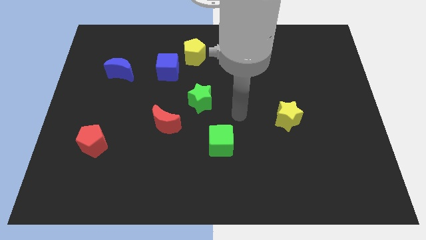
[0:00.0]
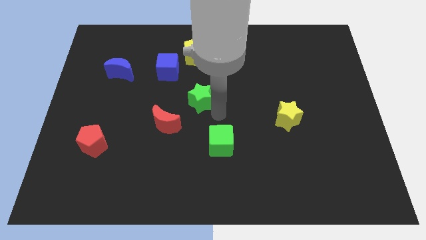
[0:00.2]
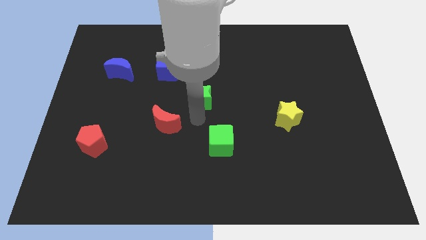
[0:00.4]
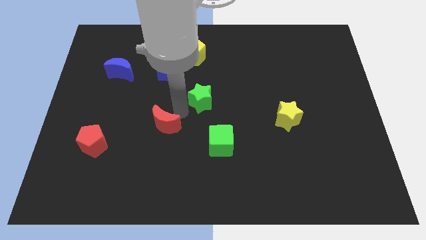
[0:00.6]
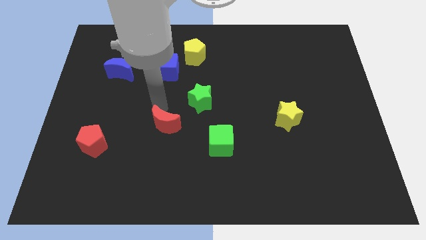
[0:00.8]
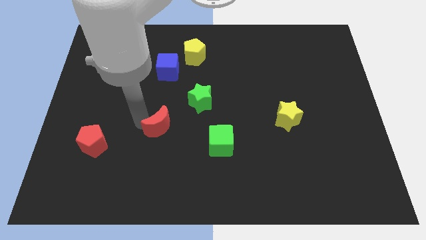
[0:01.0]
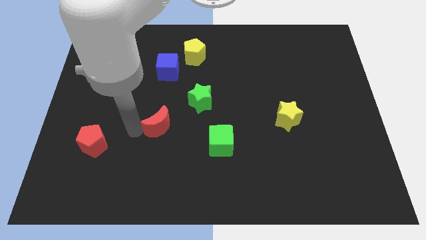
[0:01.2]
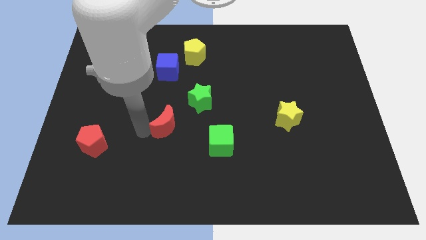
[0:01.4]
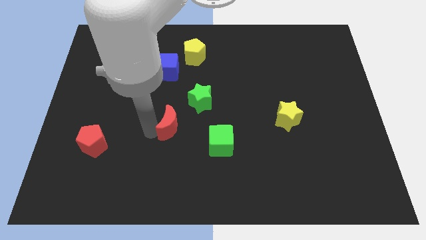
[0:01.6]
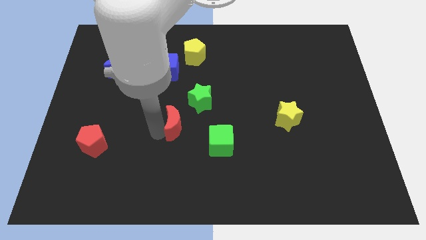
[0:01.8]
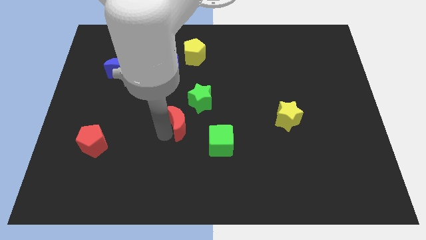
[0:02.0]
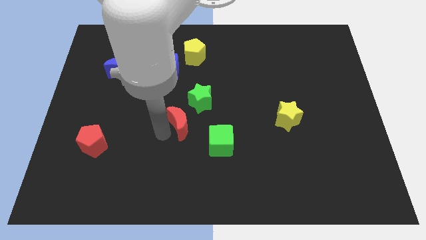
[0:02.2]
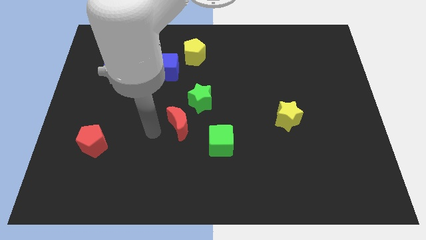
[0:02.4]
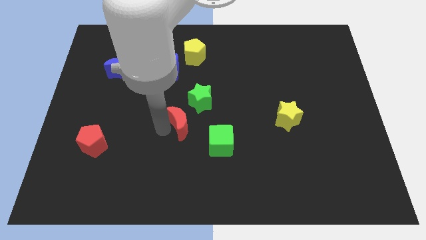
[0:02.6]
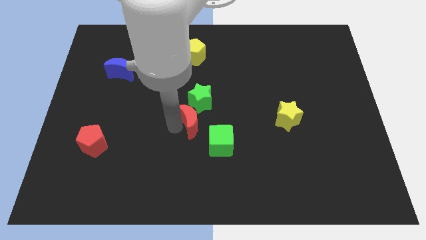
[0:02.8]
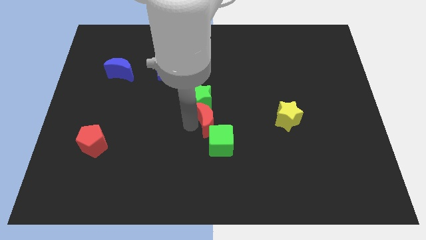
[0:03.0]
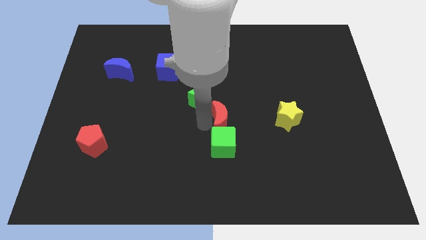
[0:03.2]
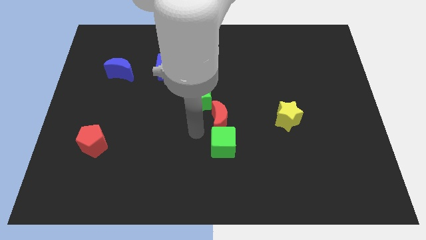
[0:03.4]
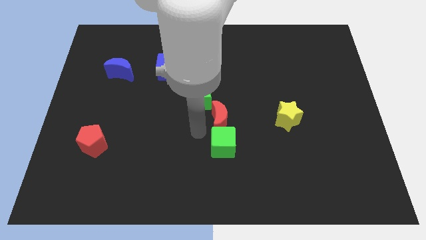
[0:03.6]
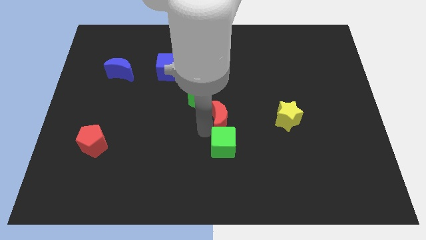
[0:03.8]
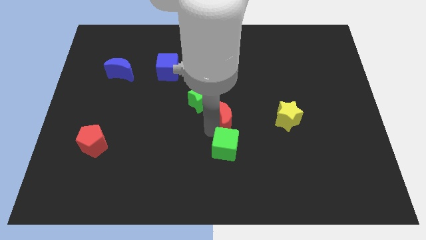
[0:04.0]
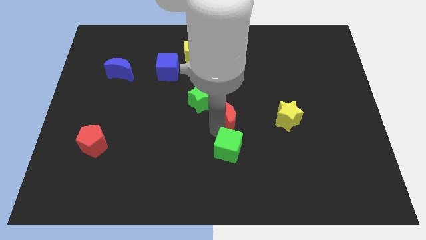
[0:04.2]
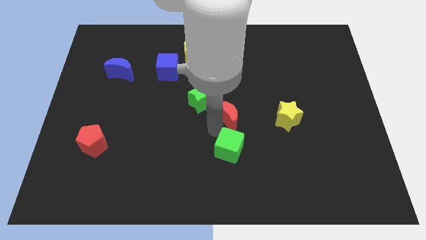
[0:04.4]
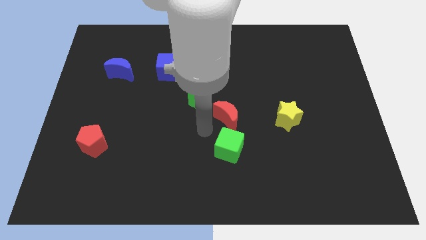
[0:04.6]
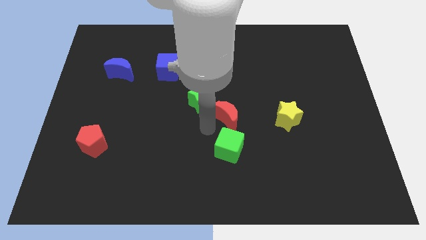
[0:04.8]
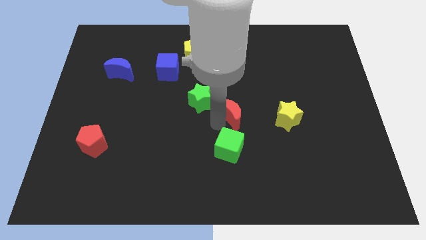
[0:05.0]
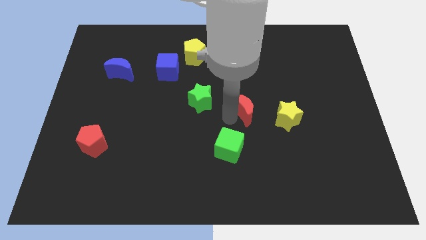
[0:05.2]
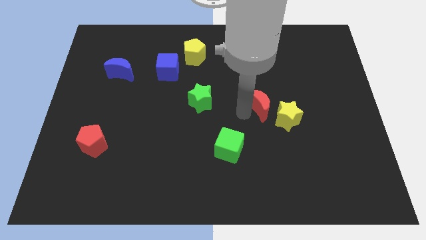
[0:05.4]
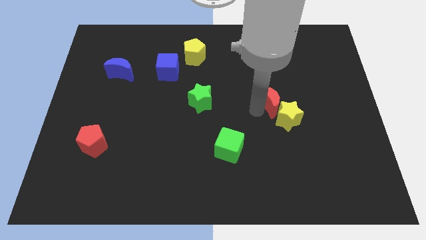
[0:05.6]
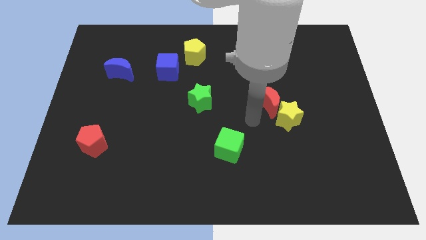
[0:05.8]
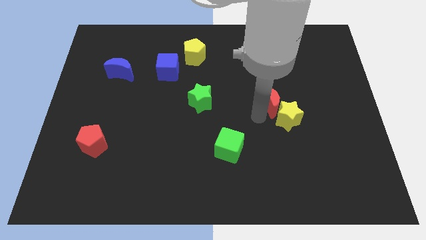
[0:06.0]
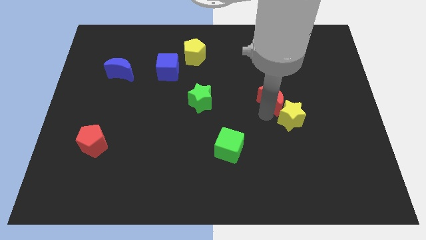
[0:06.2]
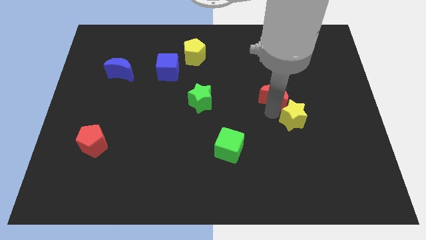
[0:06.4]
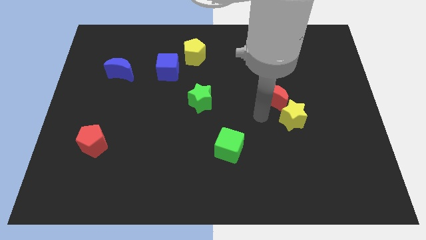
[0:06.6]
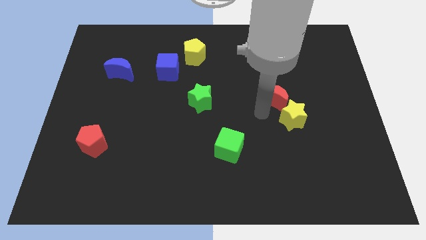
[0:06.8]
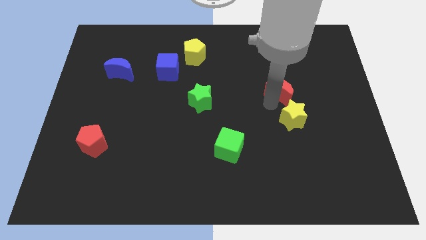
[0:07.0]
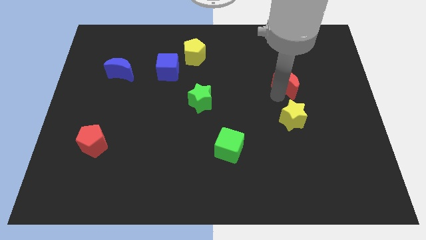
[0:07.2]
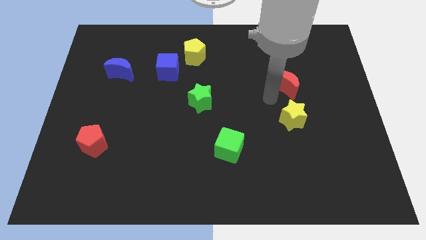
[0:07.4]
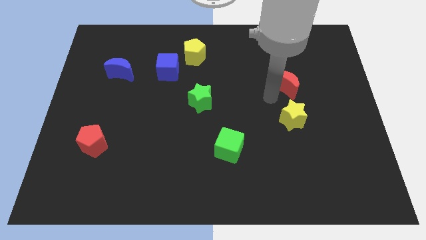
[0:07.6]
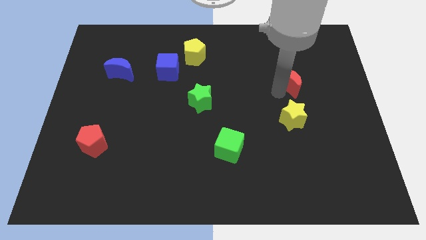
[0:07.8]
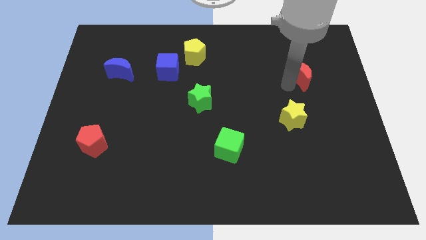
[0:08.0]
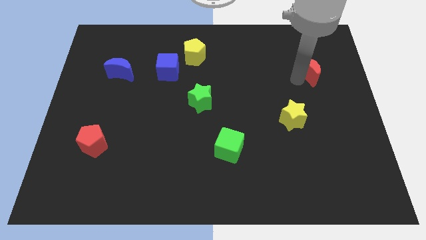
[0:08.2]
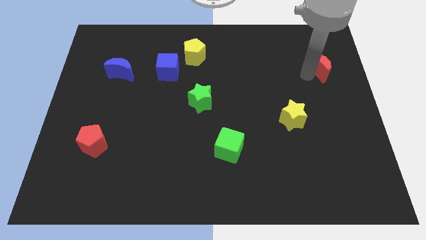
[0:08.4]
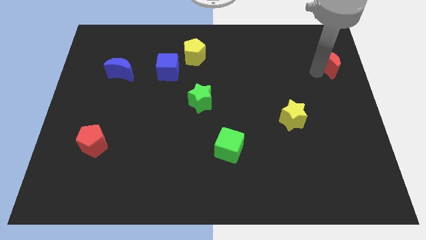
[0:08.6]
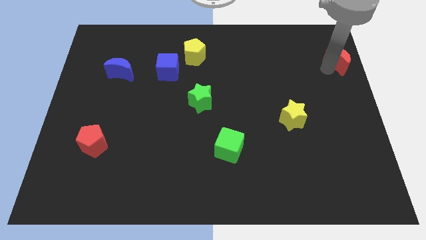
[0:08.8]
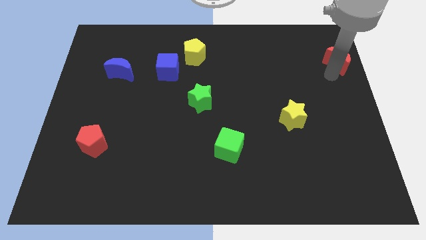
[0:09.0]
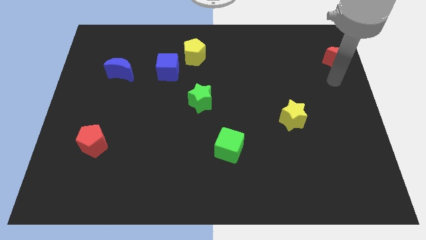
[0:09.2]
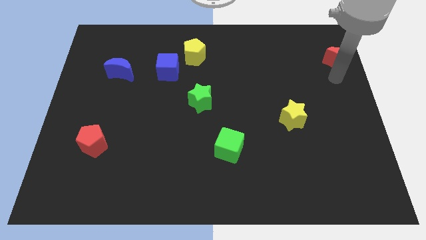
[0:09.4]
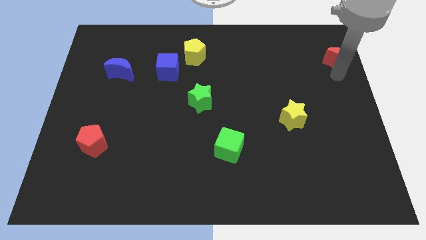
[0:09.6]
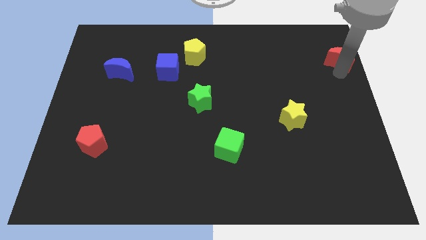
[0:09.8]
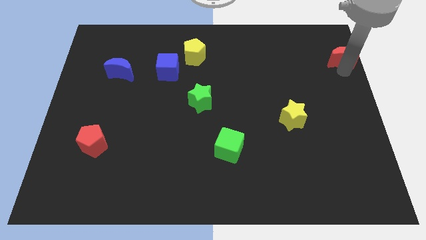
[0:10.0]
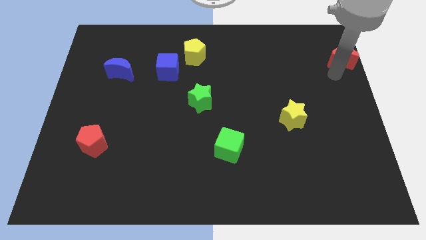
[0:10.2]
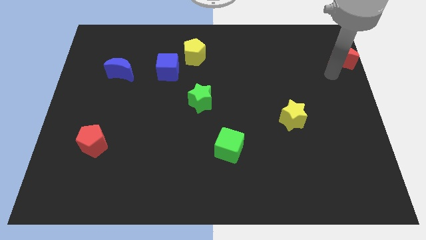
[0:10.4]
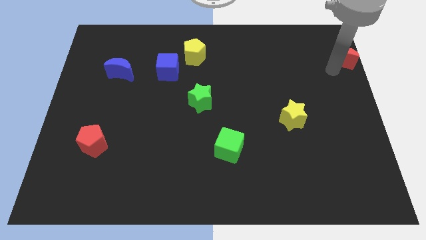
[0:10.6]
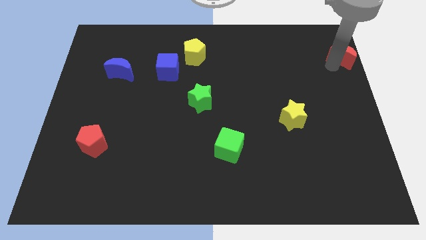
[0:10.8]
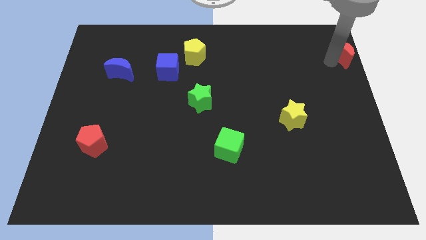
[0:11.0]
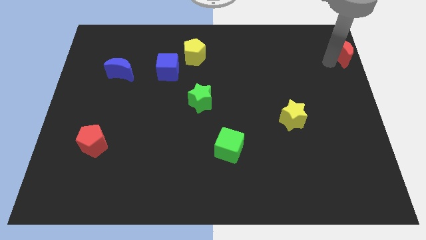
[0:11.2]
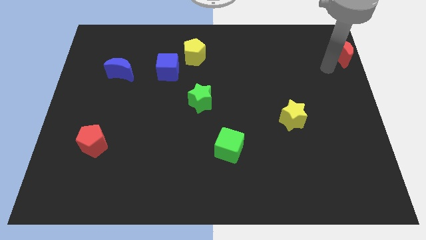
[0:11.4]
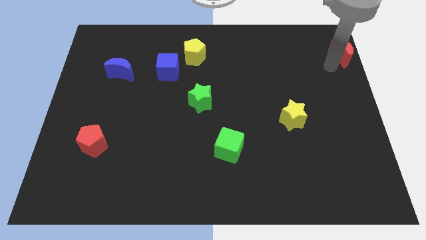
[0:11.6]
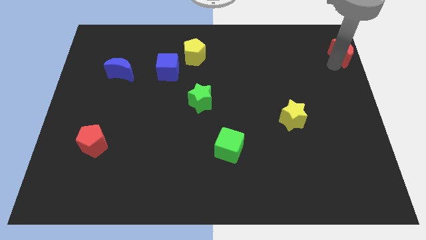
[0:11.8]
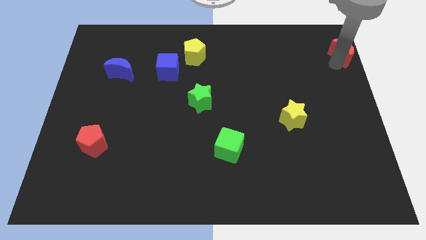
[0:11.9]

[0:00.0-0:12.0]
move the red moon to the top right corner

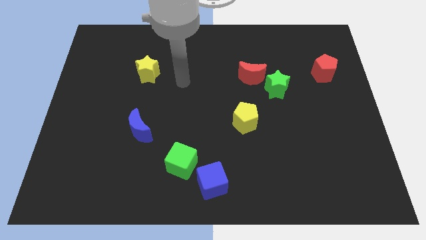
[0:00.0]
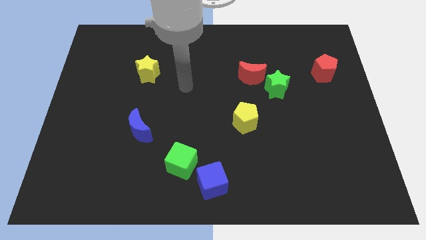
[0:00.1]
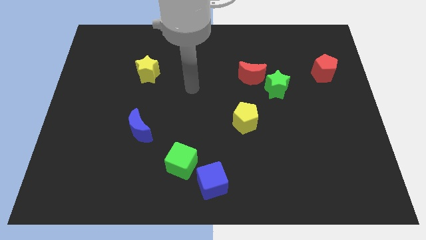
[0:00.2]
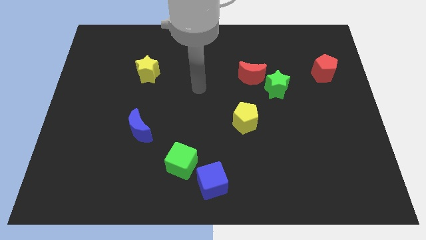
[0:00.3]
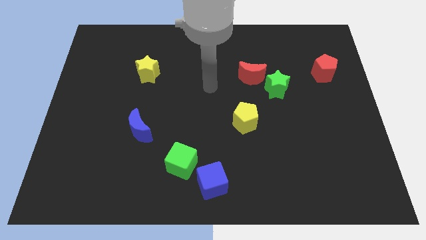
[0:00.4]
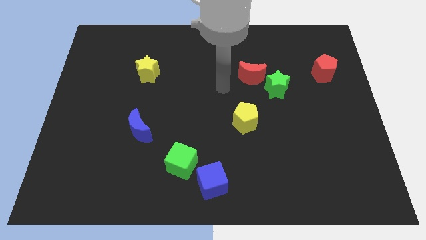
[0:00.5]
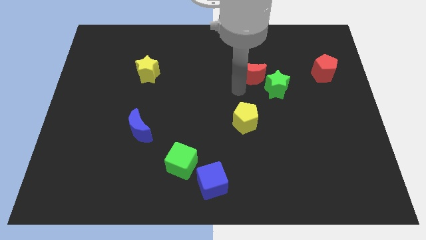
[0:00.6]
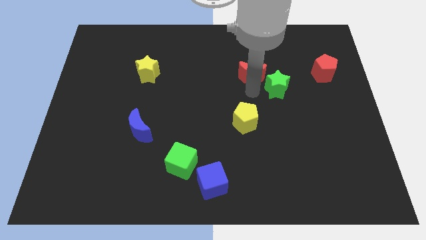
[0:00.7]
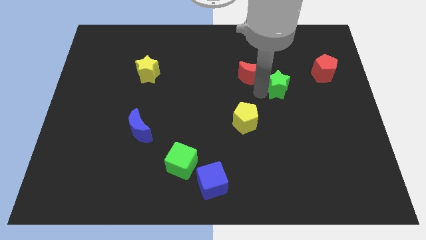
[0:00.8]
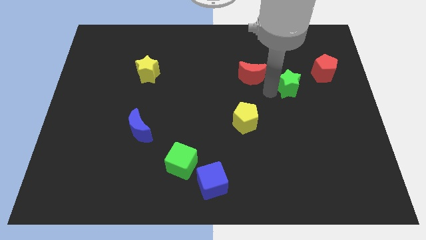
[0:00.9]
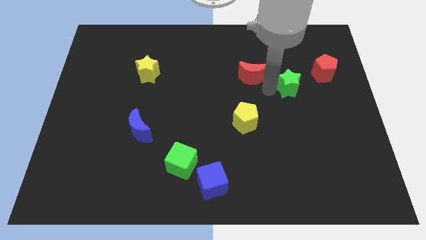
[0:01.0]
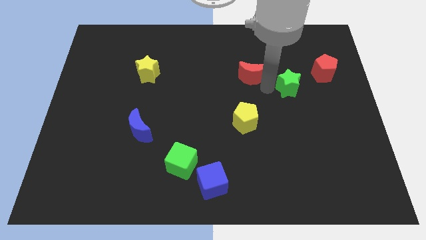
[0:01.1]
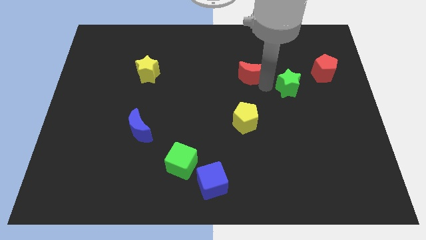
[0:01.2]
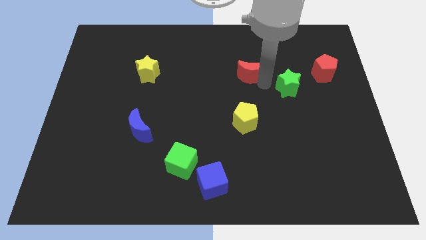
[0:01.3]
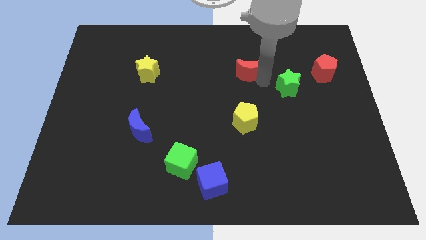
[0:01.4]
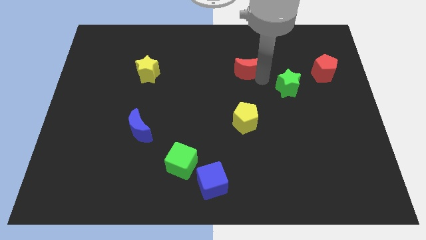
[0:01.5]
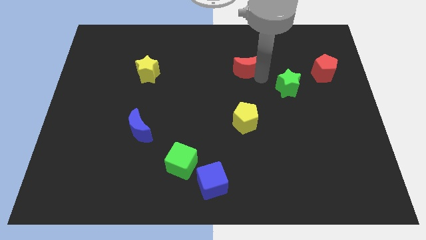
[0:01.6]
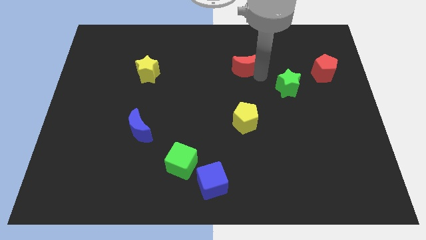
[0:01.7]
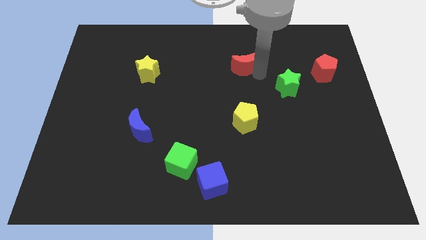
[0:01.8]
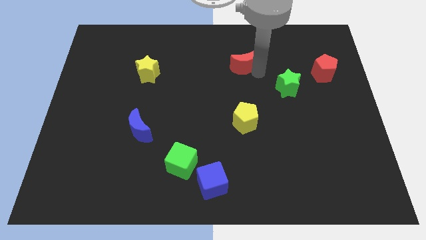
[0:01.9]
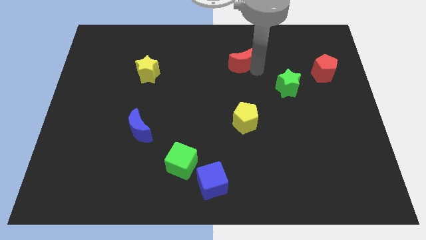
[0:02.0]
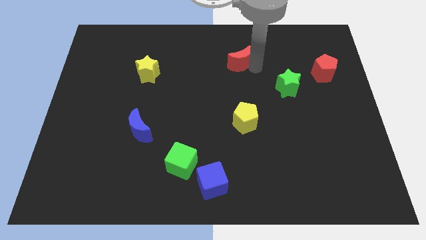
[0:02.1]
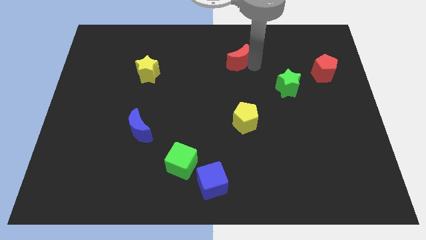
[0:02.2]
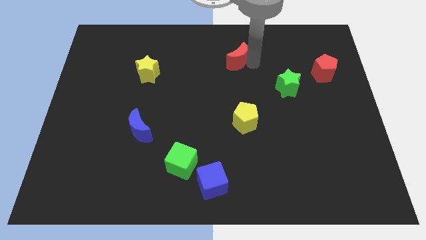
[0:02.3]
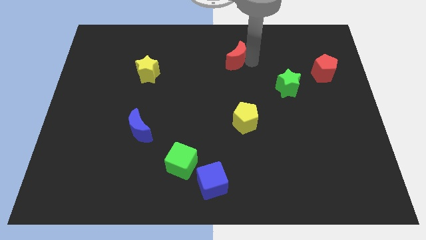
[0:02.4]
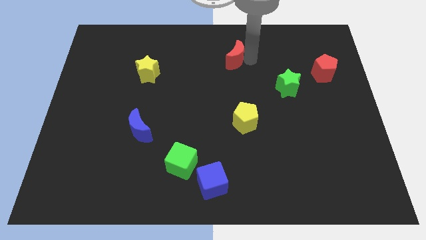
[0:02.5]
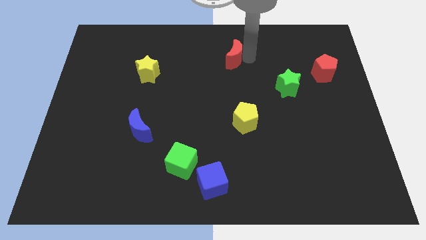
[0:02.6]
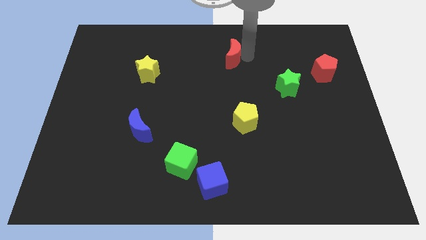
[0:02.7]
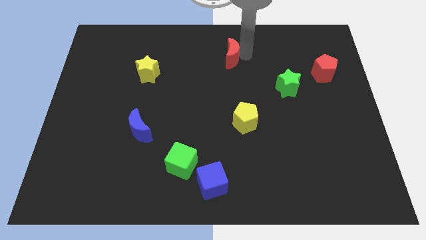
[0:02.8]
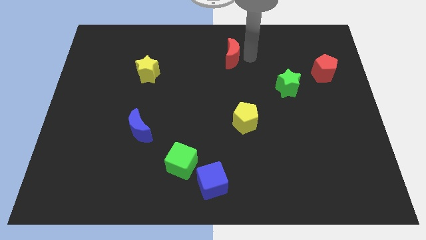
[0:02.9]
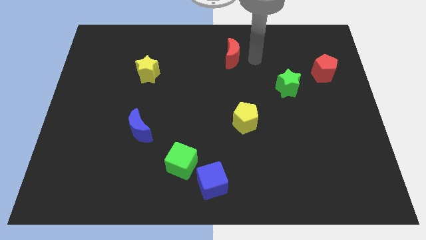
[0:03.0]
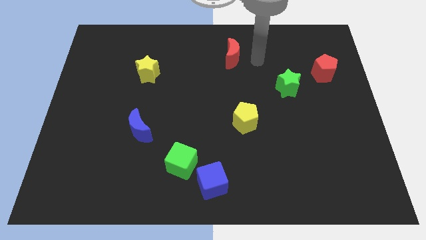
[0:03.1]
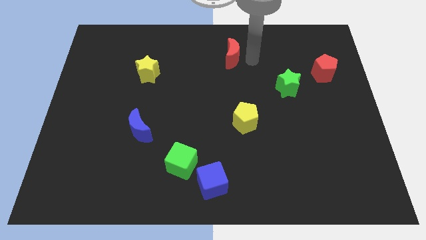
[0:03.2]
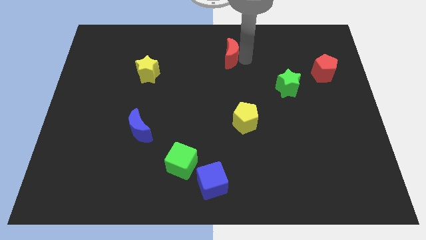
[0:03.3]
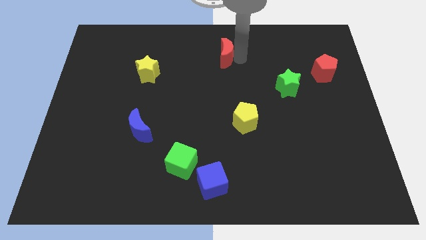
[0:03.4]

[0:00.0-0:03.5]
move the red moon to the top
